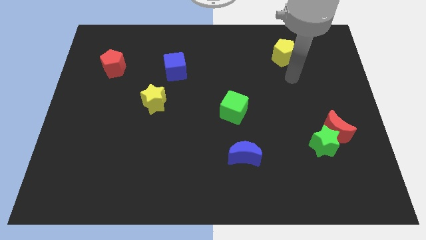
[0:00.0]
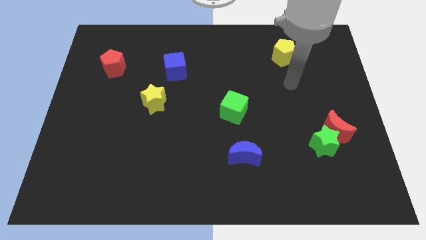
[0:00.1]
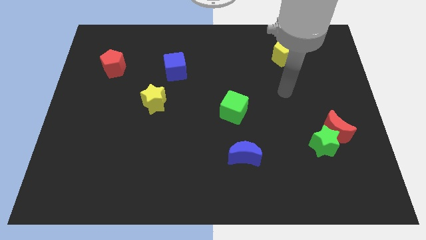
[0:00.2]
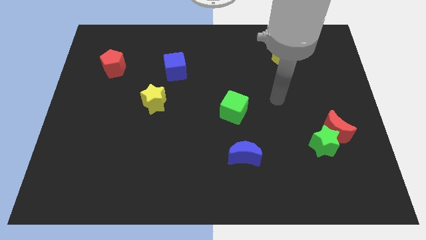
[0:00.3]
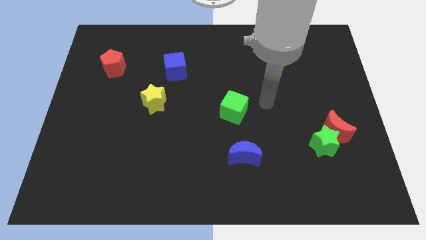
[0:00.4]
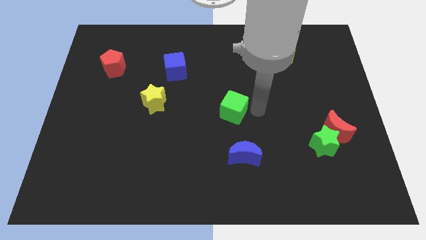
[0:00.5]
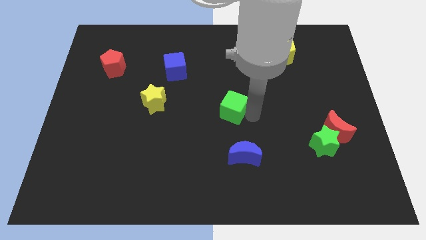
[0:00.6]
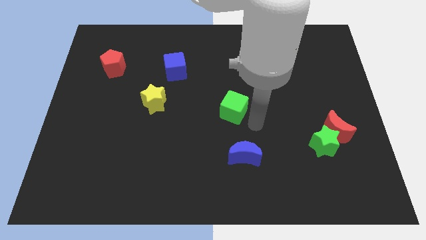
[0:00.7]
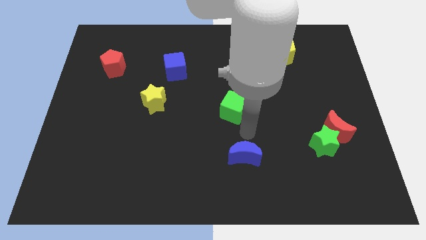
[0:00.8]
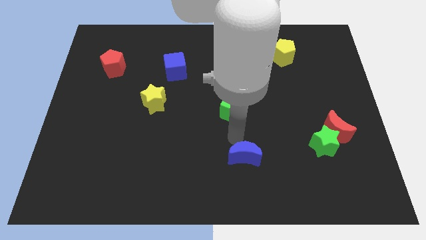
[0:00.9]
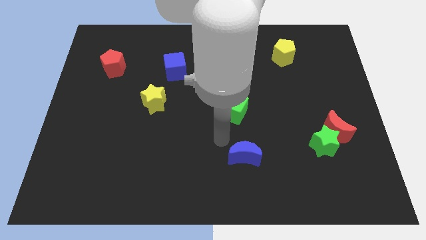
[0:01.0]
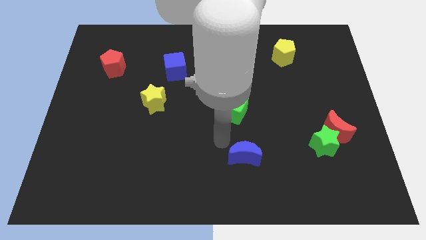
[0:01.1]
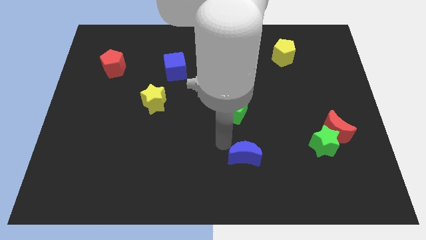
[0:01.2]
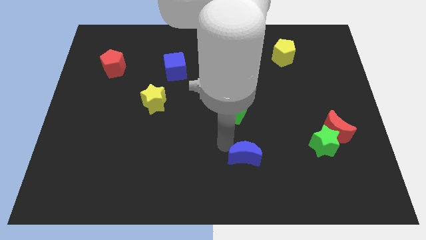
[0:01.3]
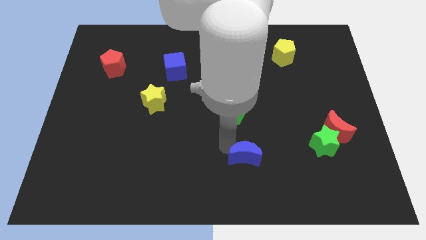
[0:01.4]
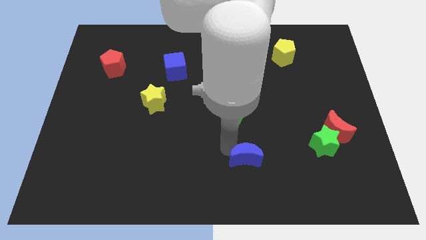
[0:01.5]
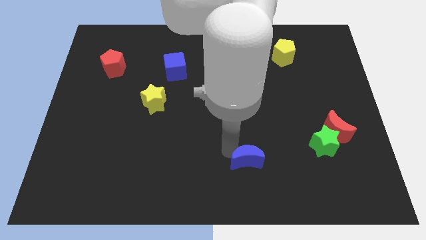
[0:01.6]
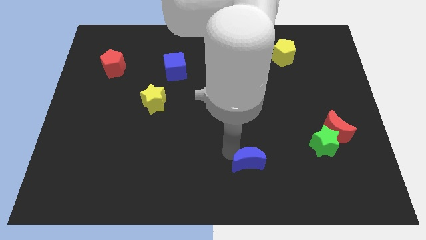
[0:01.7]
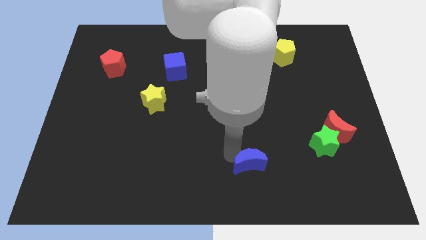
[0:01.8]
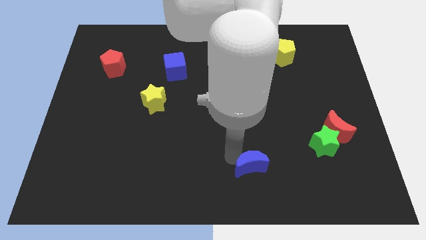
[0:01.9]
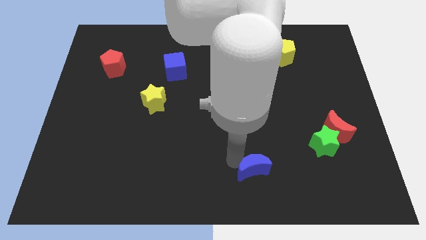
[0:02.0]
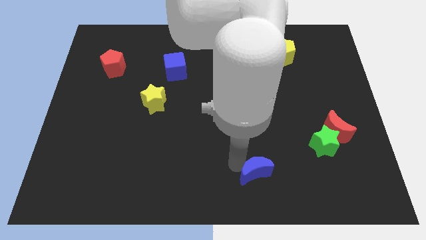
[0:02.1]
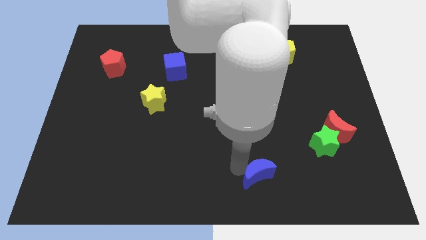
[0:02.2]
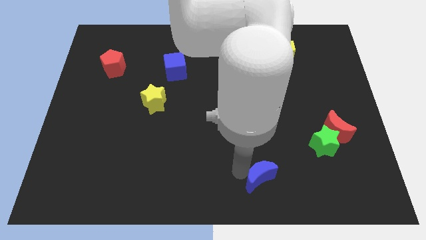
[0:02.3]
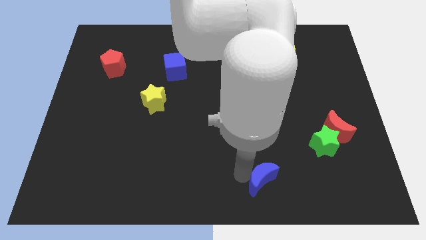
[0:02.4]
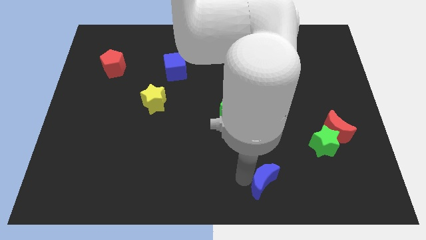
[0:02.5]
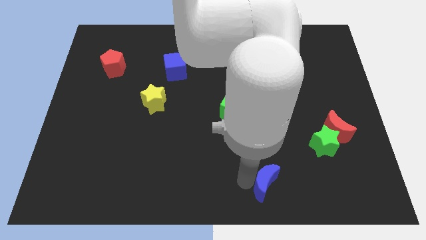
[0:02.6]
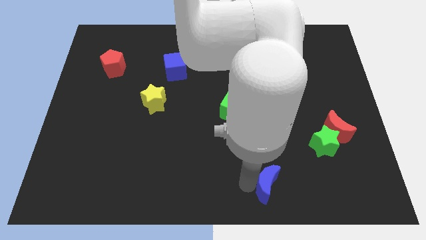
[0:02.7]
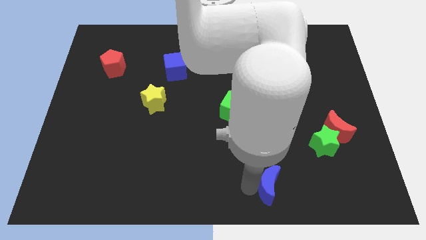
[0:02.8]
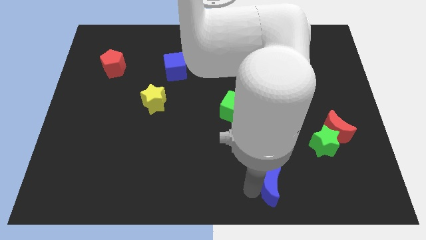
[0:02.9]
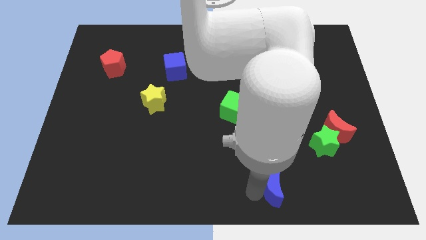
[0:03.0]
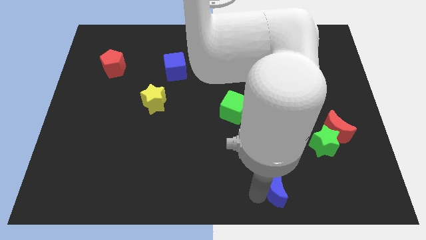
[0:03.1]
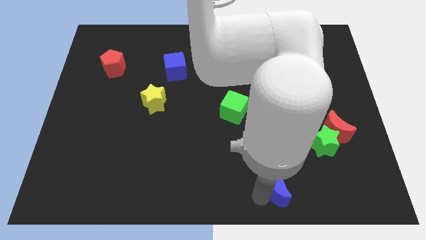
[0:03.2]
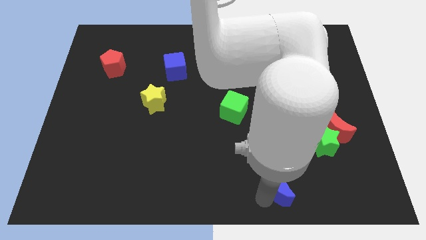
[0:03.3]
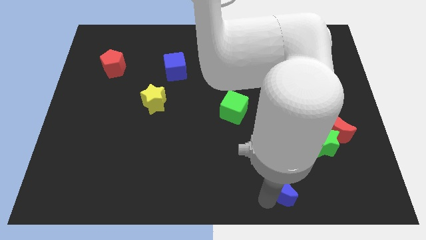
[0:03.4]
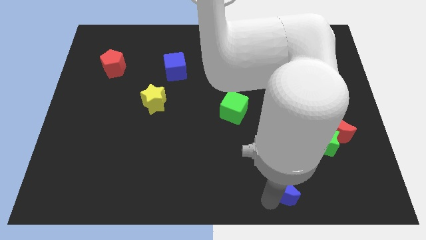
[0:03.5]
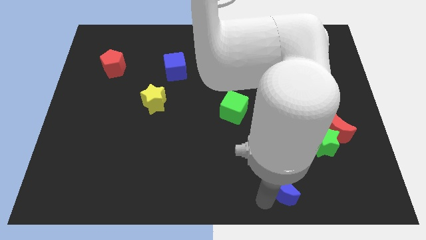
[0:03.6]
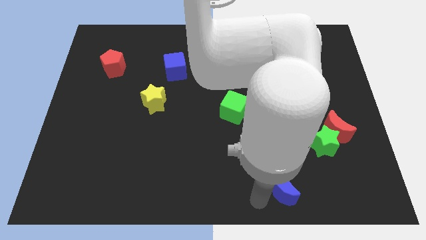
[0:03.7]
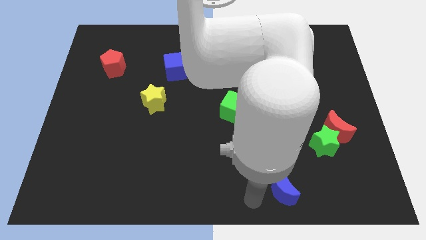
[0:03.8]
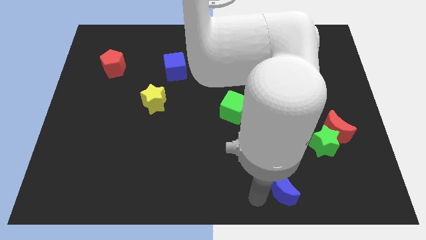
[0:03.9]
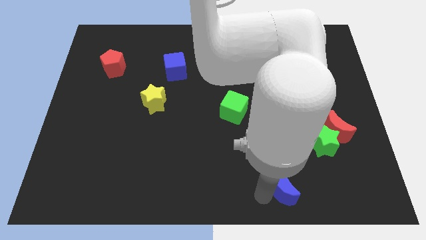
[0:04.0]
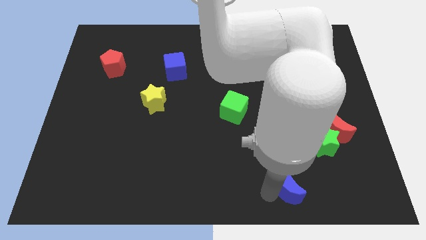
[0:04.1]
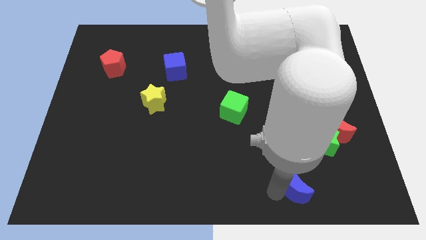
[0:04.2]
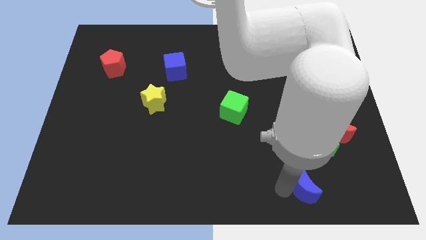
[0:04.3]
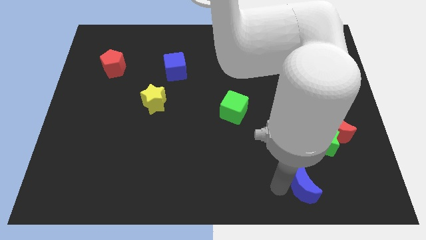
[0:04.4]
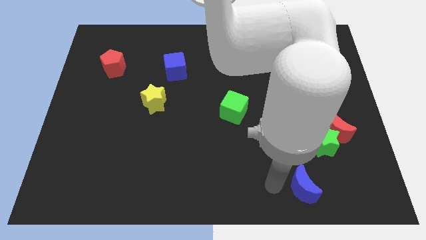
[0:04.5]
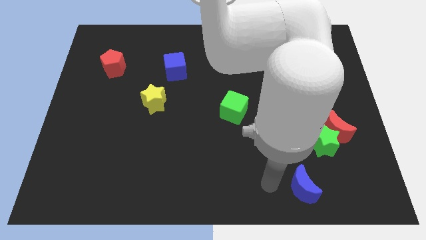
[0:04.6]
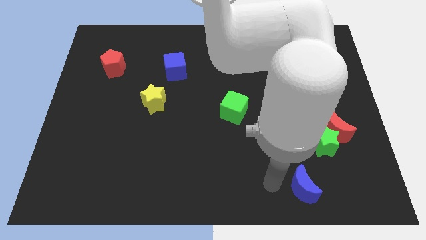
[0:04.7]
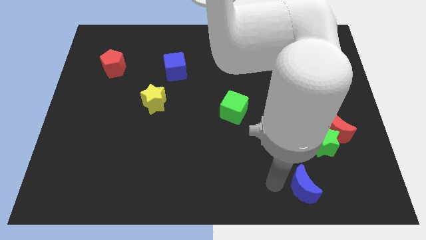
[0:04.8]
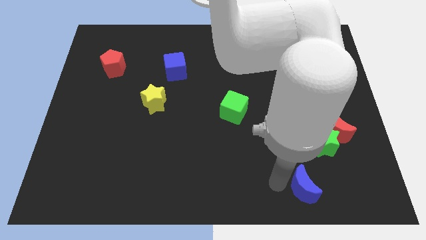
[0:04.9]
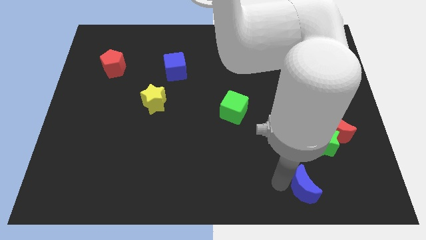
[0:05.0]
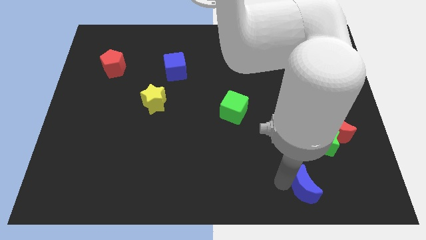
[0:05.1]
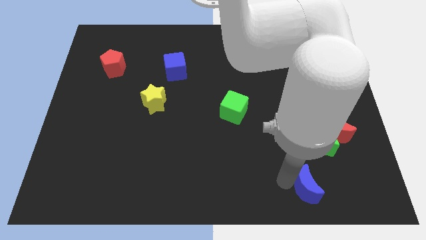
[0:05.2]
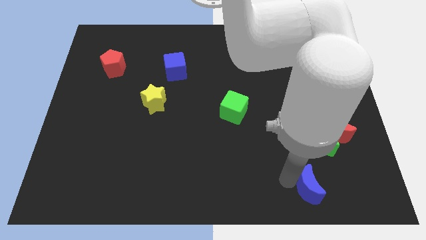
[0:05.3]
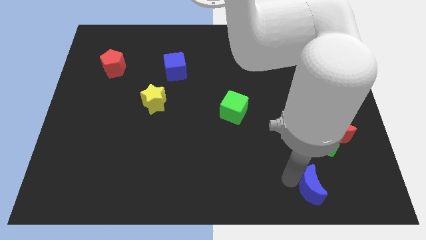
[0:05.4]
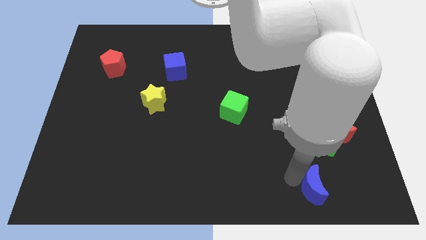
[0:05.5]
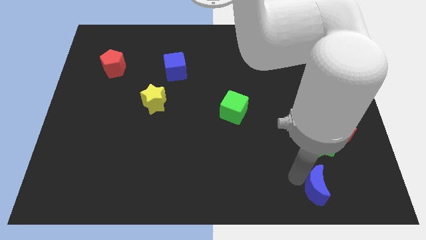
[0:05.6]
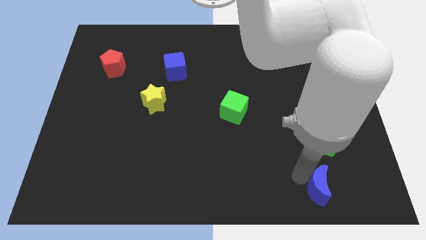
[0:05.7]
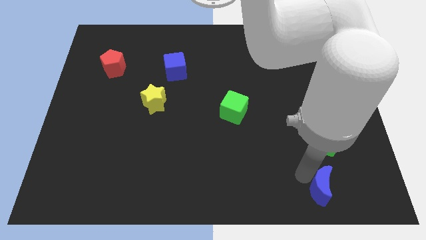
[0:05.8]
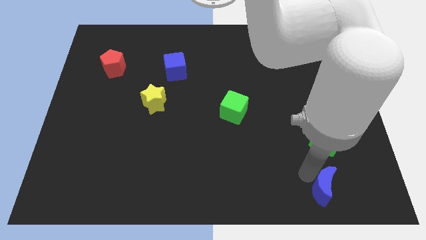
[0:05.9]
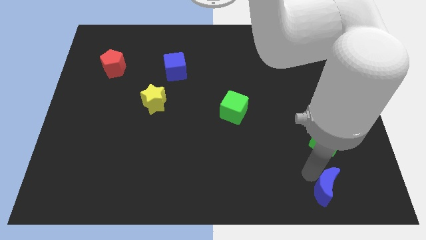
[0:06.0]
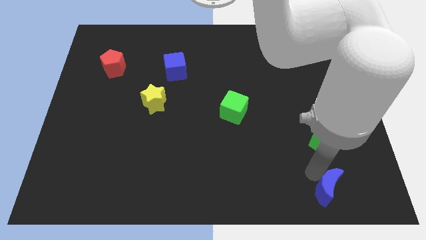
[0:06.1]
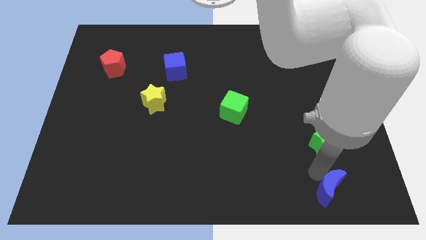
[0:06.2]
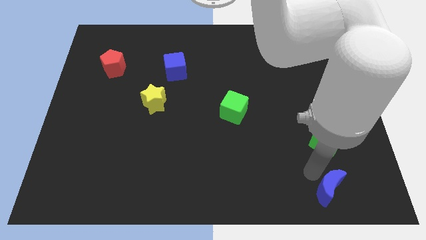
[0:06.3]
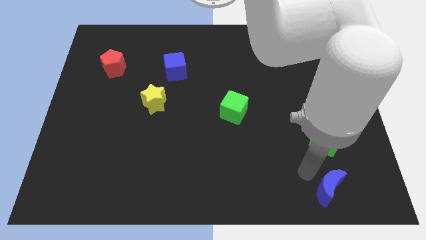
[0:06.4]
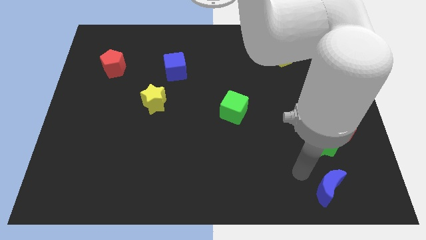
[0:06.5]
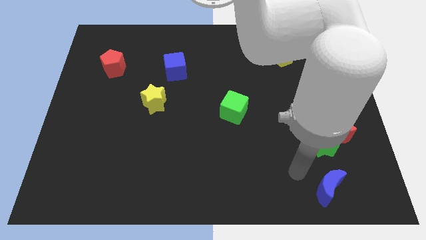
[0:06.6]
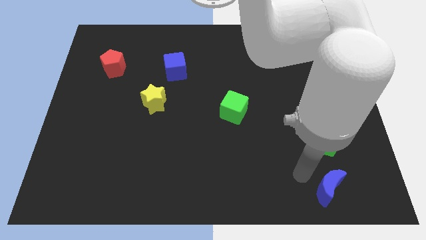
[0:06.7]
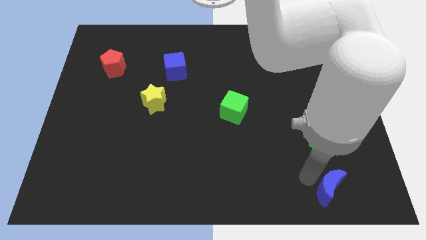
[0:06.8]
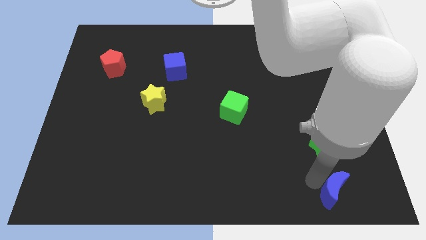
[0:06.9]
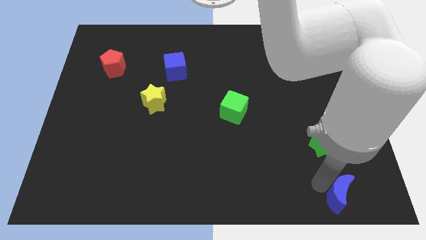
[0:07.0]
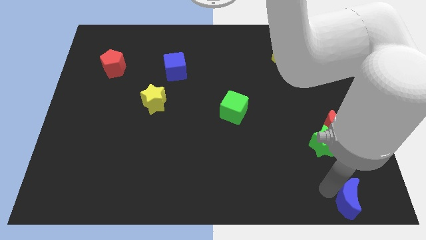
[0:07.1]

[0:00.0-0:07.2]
put the blue moon to the bottom right corner
